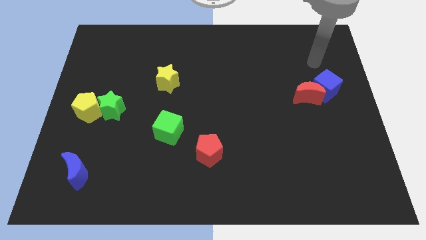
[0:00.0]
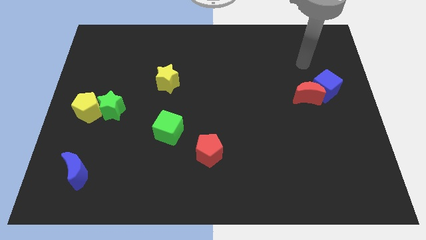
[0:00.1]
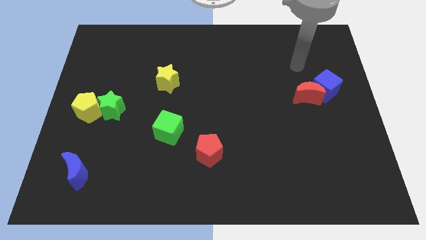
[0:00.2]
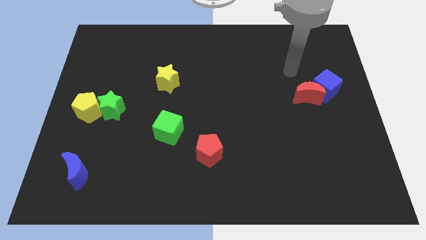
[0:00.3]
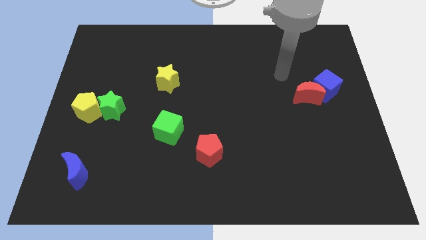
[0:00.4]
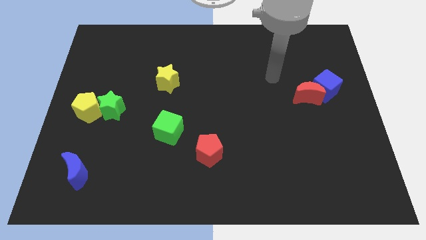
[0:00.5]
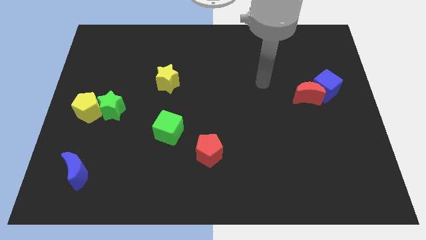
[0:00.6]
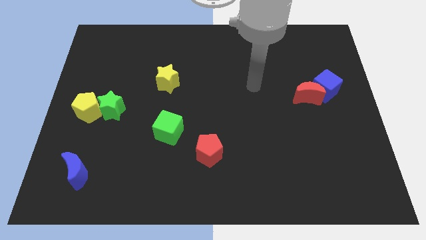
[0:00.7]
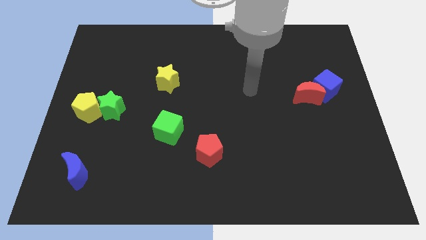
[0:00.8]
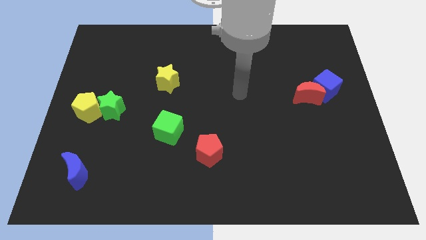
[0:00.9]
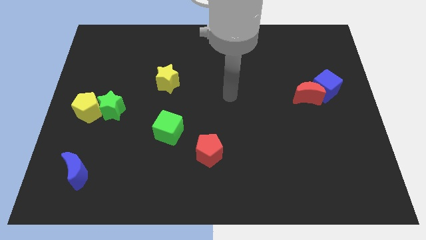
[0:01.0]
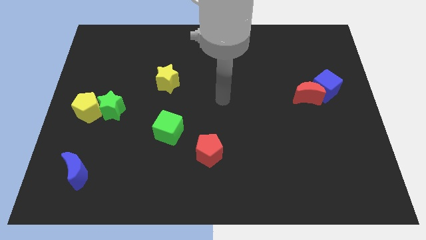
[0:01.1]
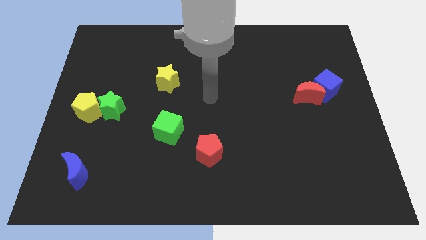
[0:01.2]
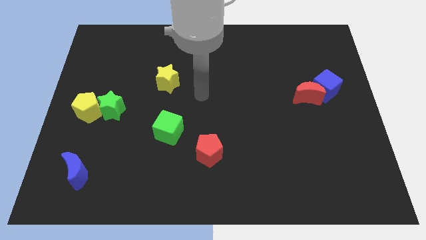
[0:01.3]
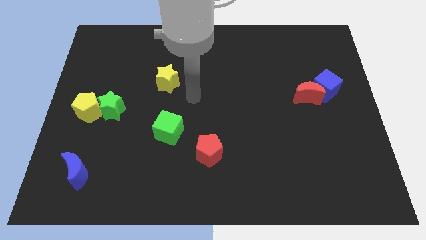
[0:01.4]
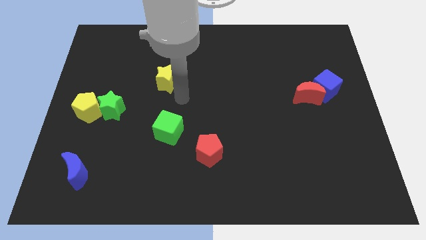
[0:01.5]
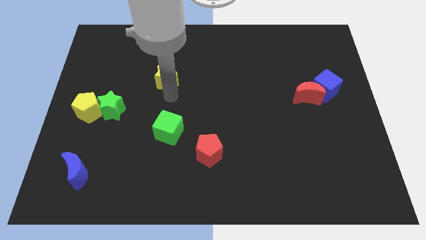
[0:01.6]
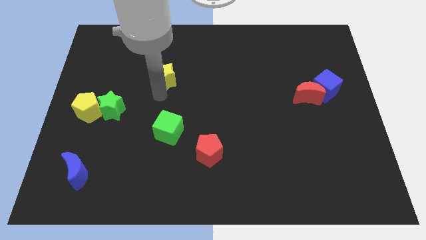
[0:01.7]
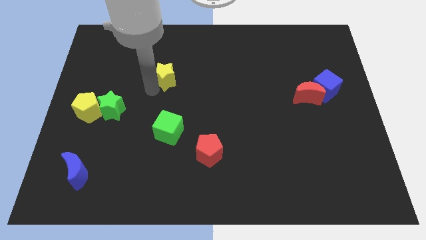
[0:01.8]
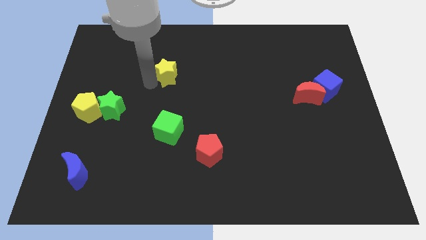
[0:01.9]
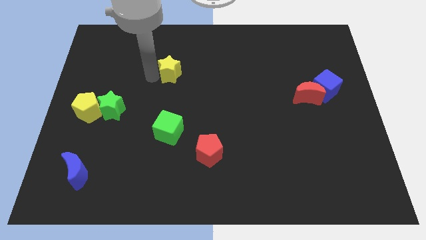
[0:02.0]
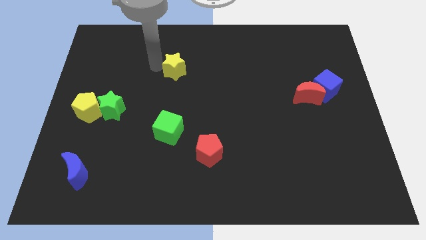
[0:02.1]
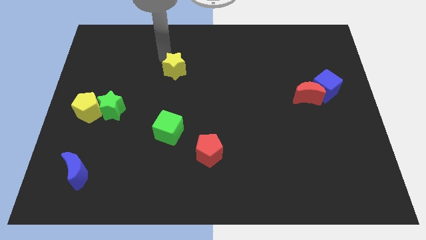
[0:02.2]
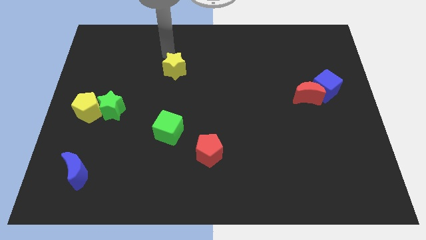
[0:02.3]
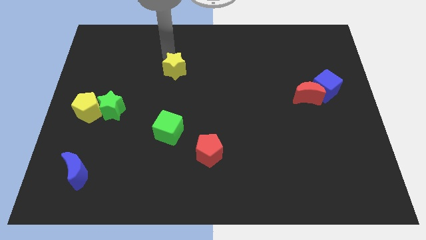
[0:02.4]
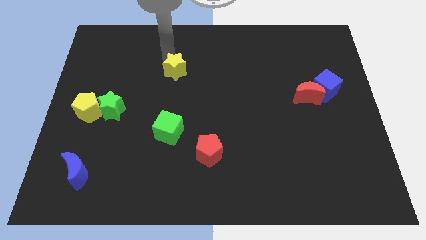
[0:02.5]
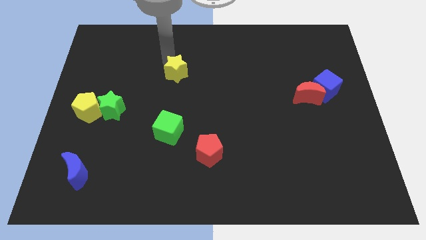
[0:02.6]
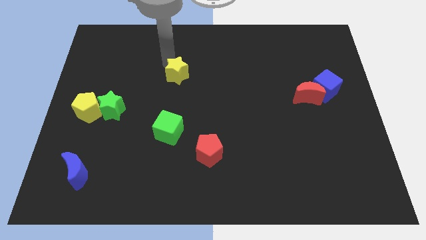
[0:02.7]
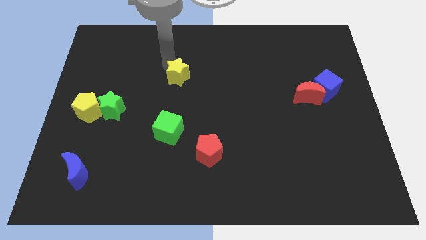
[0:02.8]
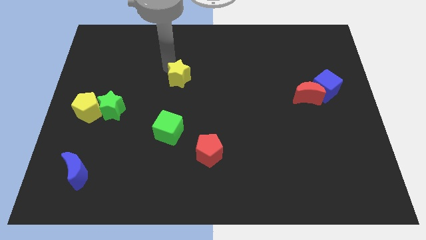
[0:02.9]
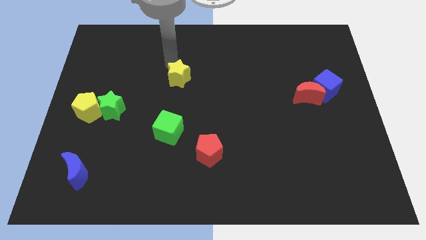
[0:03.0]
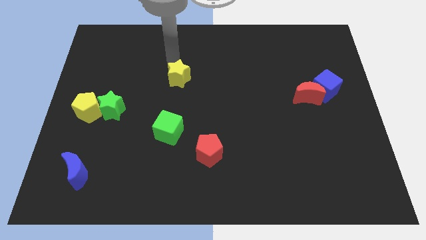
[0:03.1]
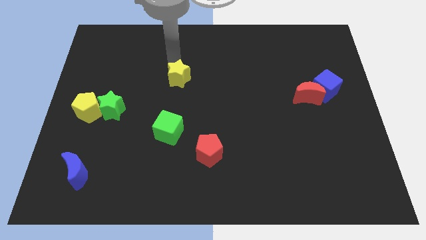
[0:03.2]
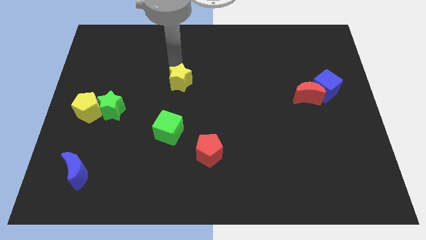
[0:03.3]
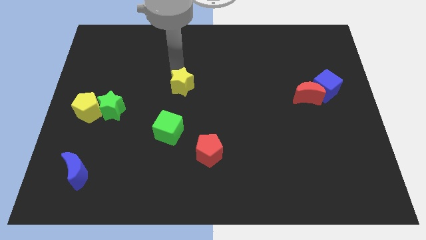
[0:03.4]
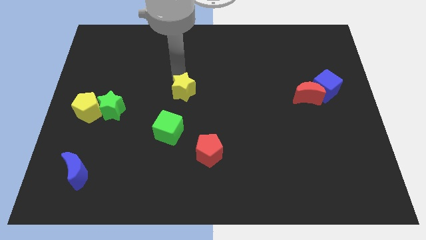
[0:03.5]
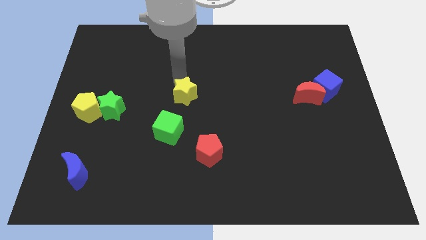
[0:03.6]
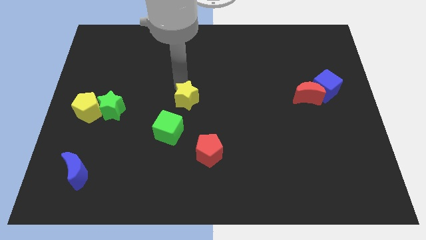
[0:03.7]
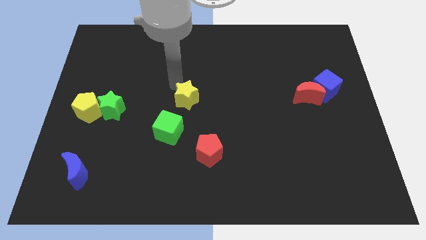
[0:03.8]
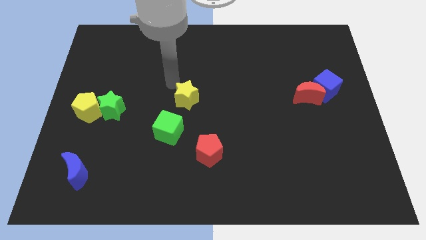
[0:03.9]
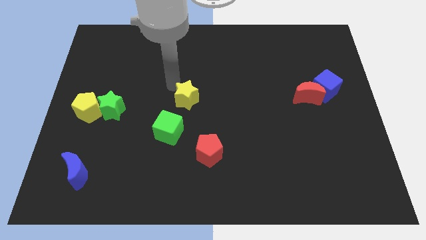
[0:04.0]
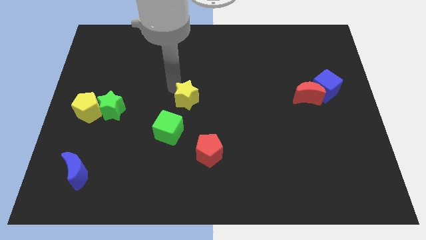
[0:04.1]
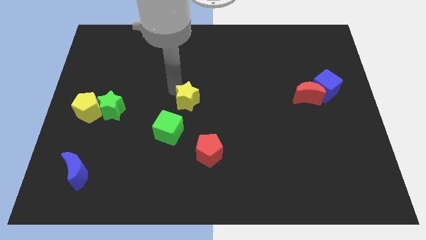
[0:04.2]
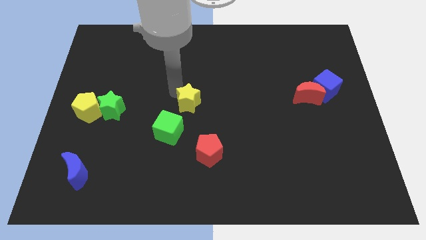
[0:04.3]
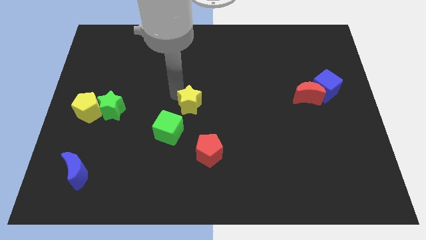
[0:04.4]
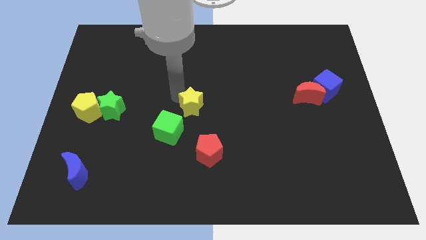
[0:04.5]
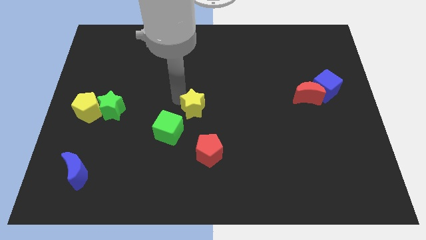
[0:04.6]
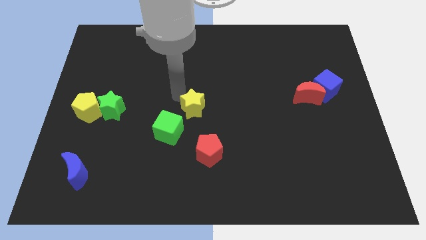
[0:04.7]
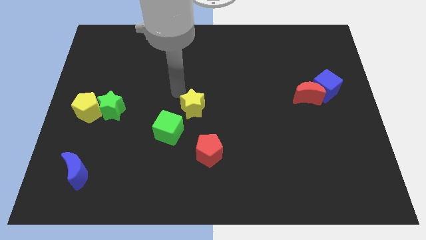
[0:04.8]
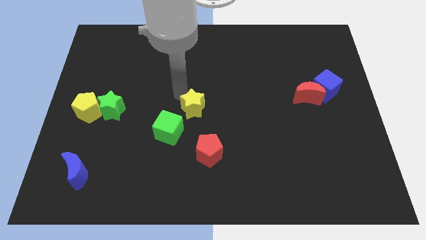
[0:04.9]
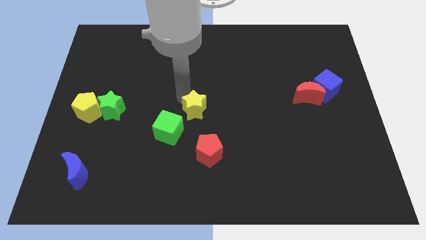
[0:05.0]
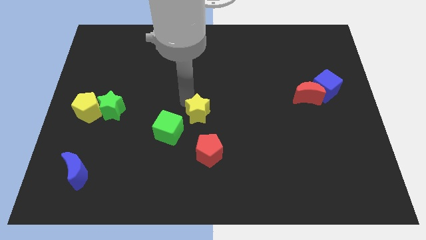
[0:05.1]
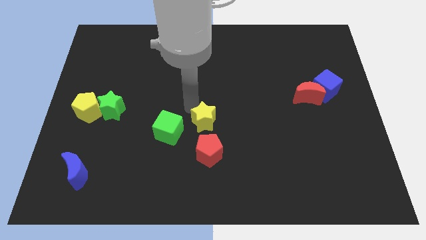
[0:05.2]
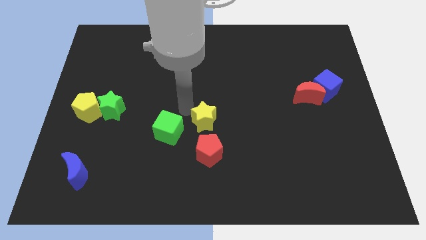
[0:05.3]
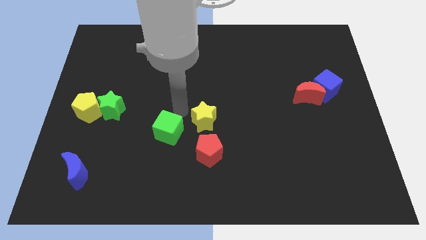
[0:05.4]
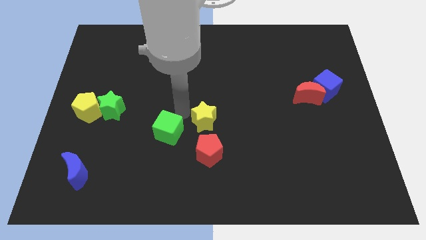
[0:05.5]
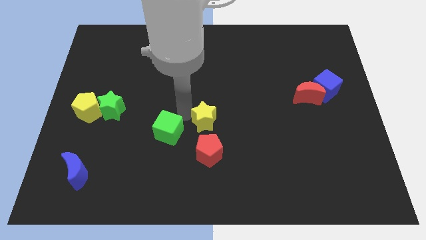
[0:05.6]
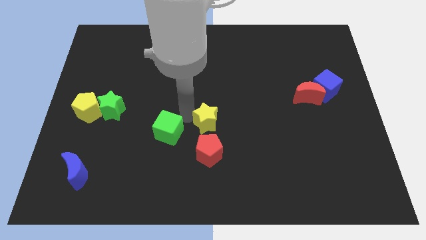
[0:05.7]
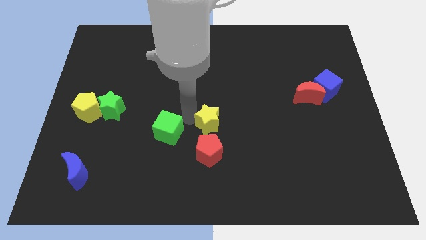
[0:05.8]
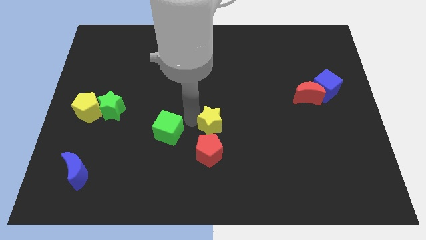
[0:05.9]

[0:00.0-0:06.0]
slide the yellow star diagonally up and to the right of the red pentagon

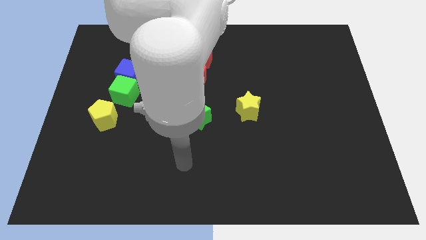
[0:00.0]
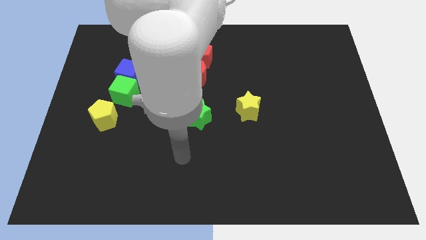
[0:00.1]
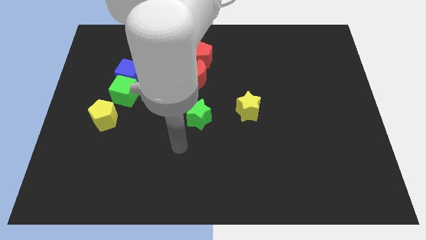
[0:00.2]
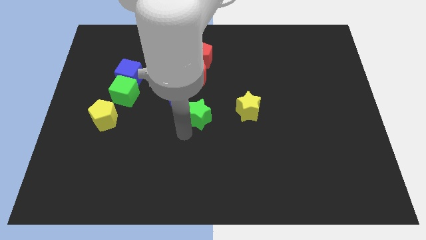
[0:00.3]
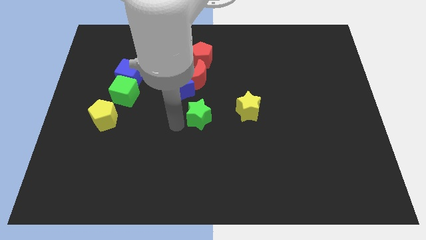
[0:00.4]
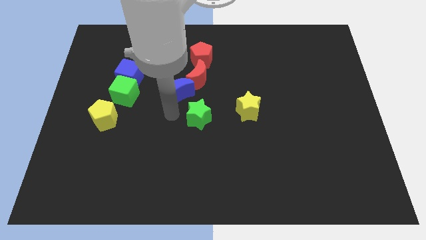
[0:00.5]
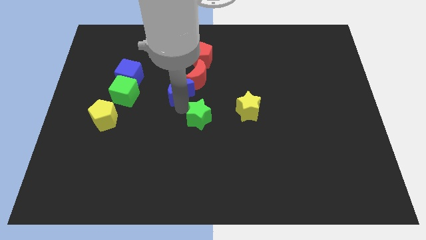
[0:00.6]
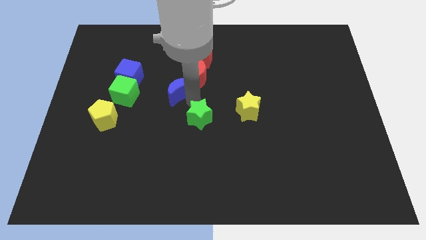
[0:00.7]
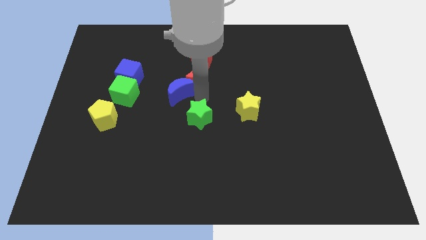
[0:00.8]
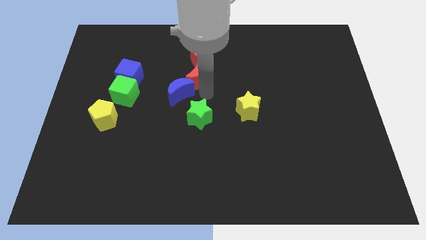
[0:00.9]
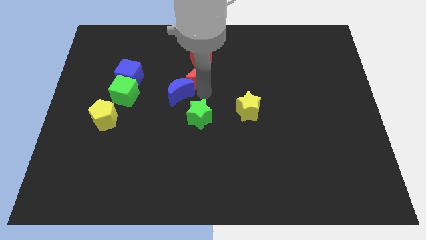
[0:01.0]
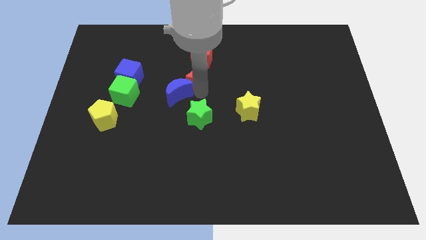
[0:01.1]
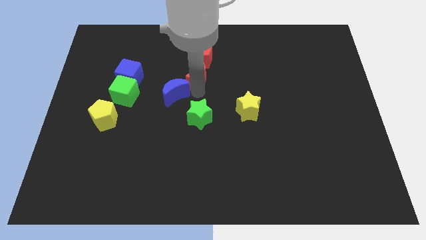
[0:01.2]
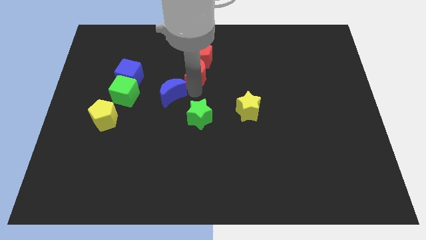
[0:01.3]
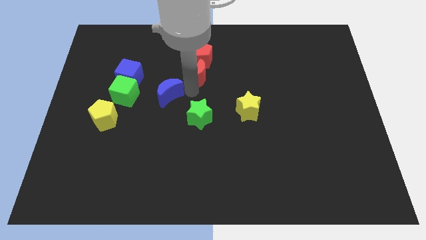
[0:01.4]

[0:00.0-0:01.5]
put the blue moon to the bottom right side of the blue cube
